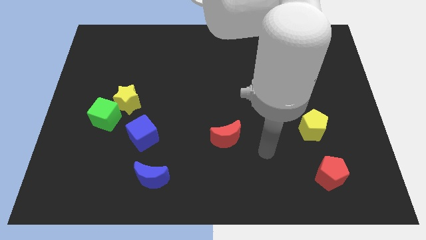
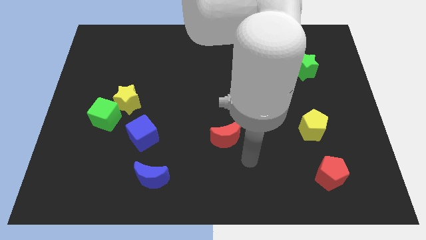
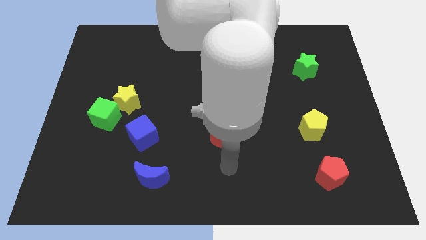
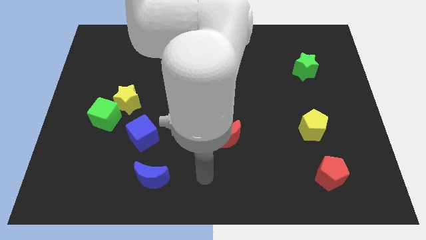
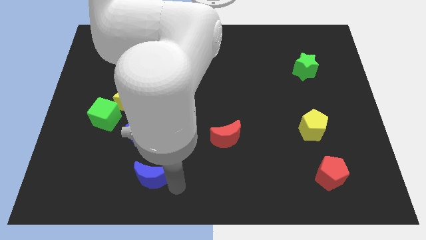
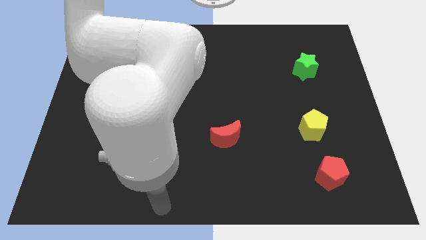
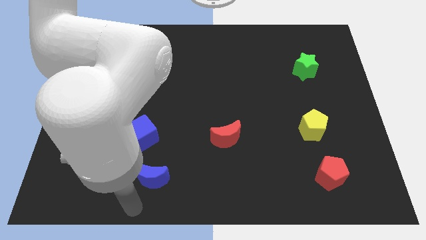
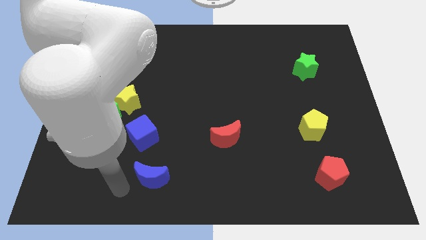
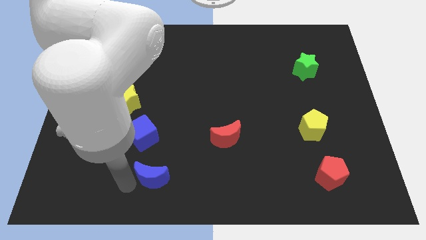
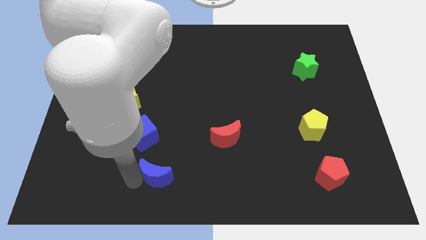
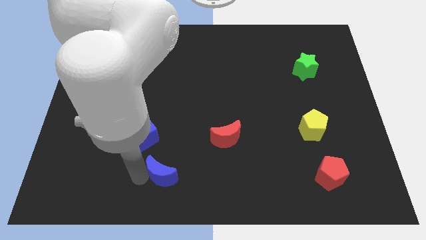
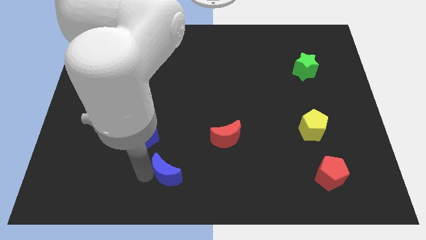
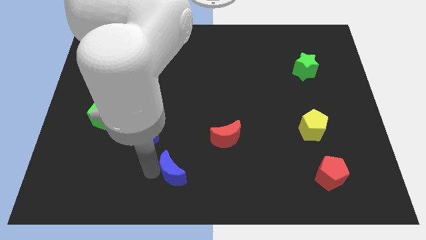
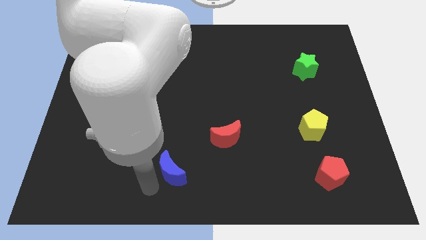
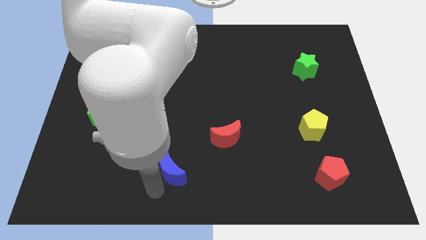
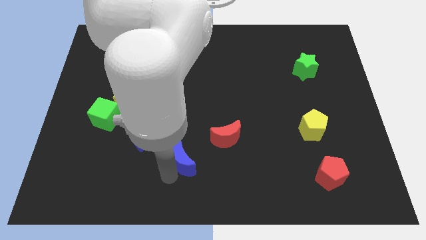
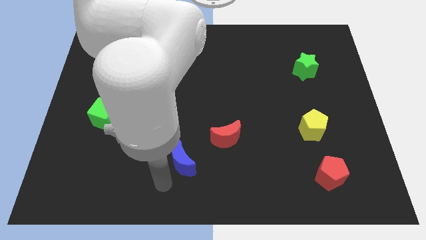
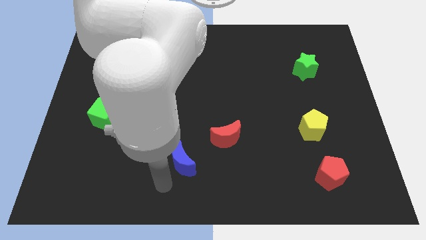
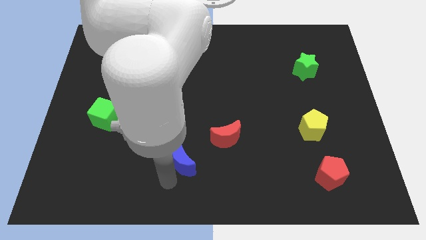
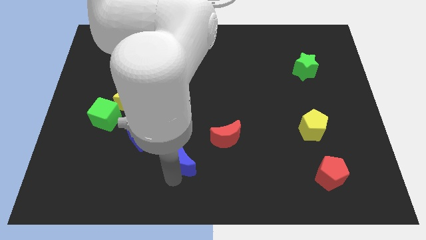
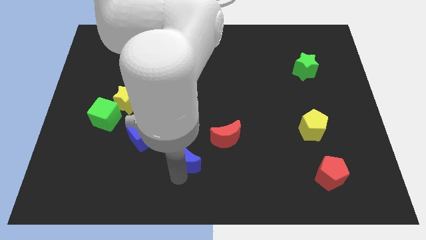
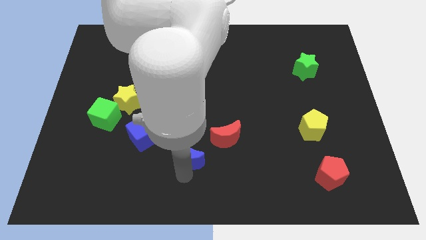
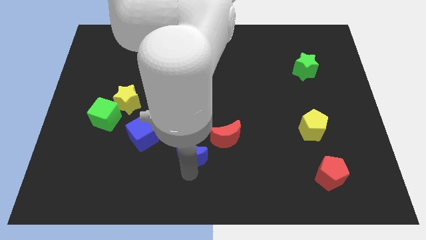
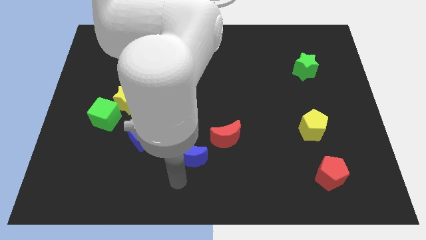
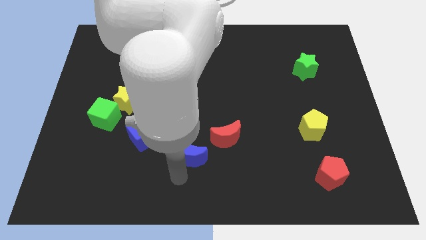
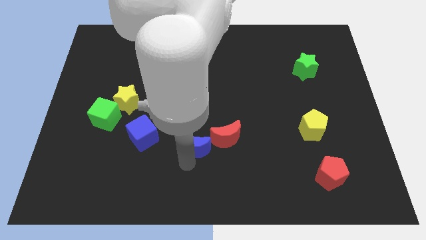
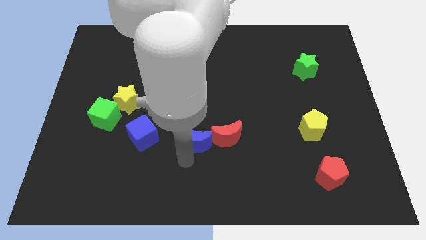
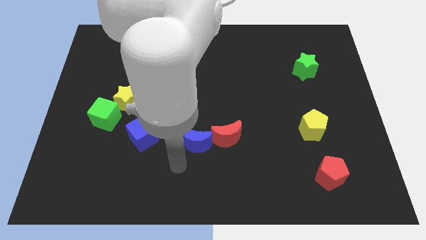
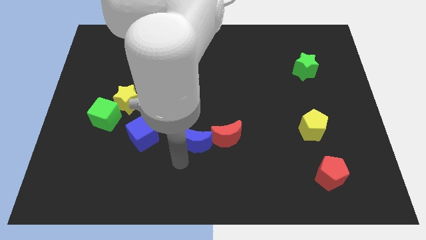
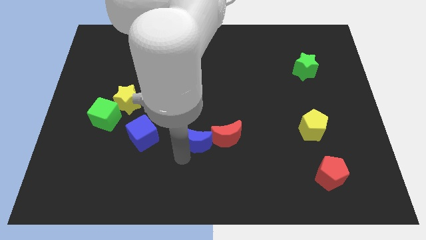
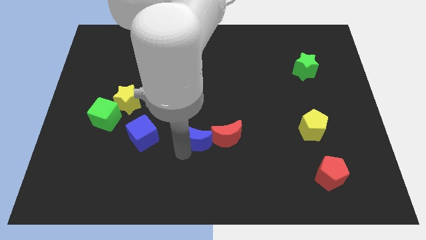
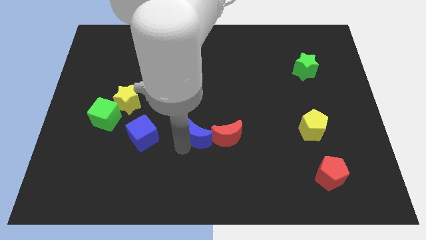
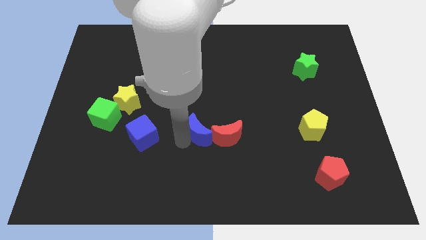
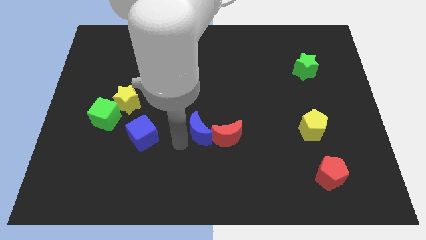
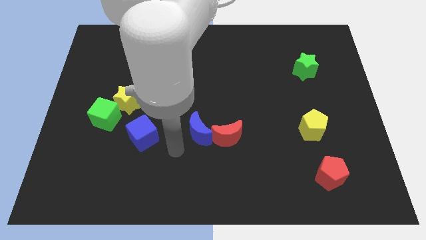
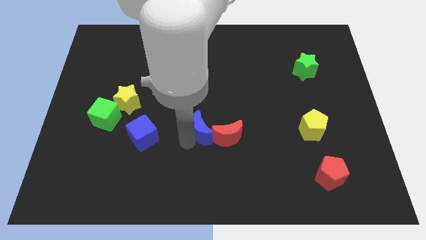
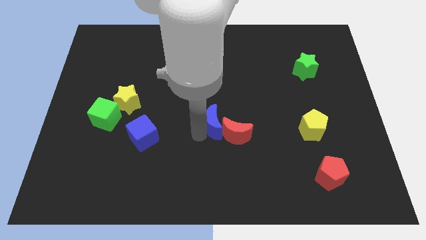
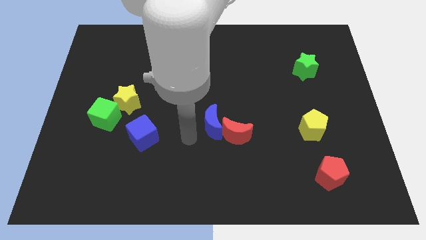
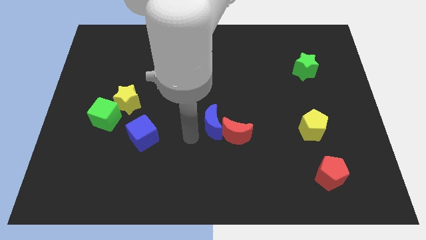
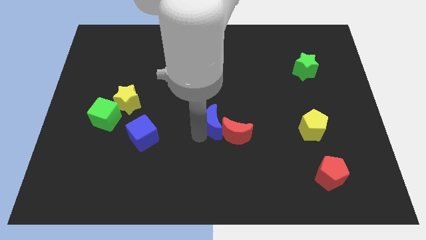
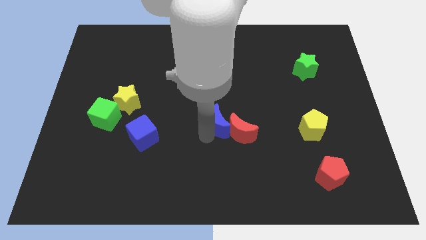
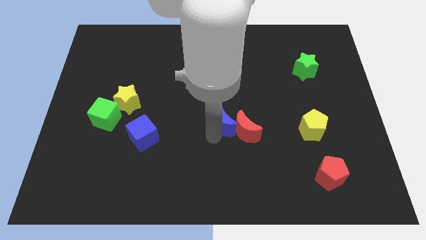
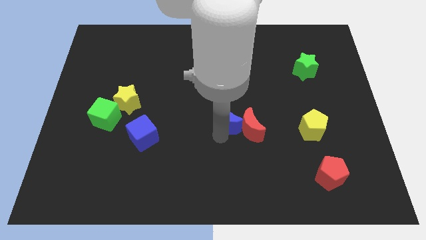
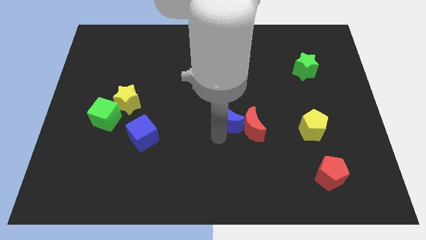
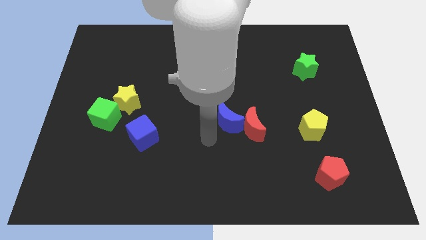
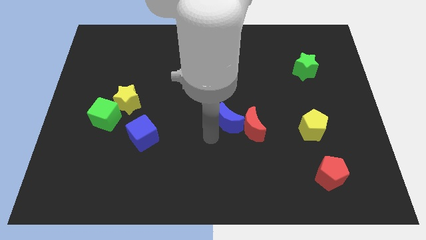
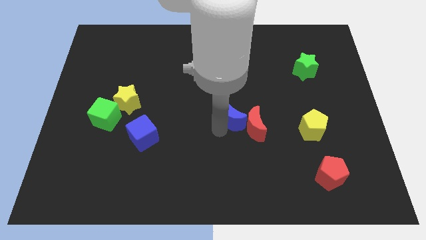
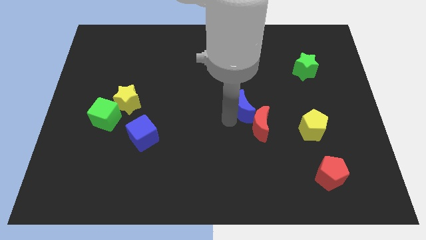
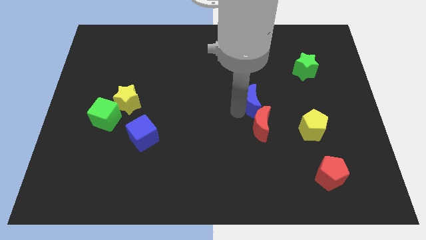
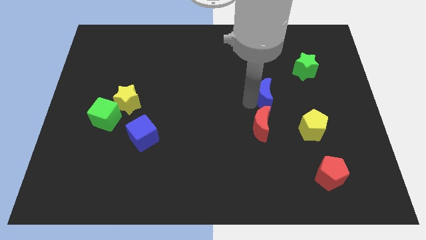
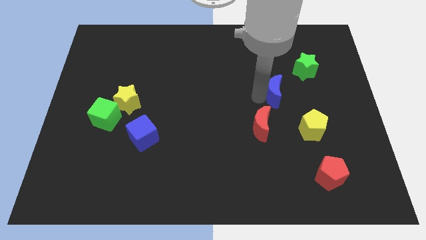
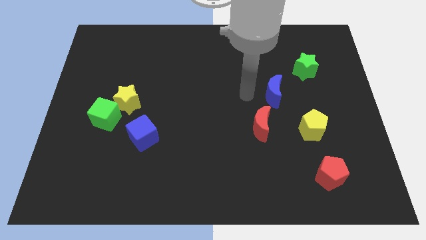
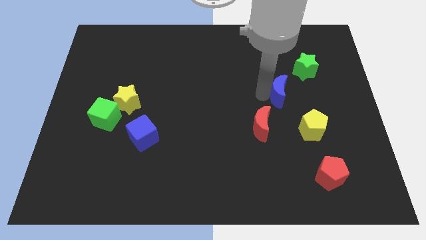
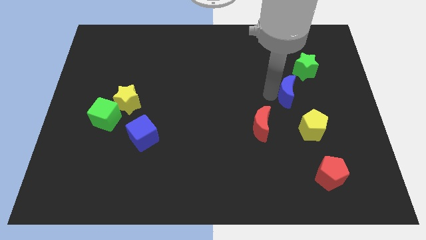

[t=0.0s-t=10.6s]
push the blue moon to the top of the yellow pentagon

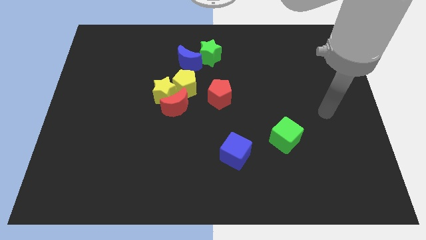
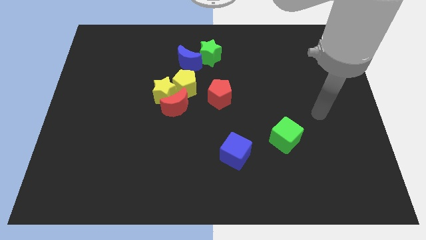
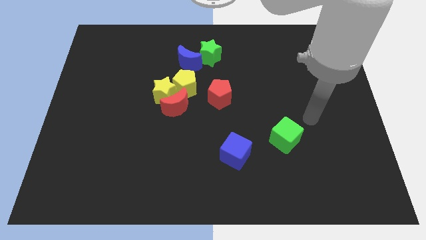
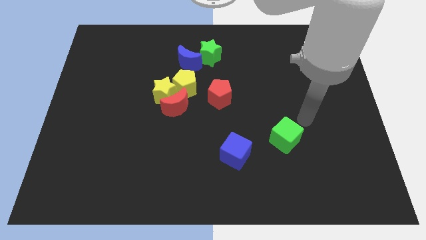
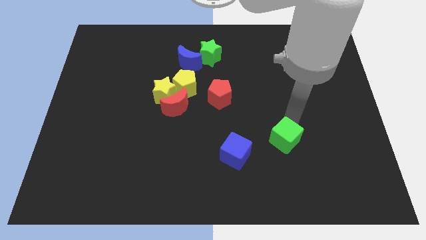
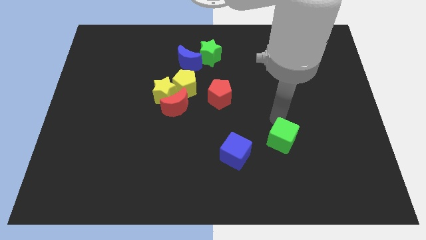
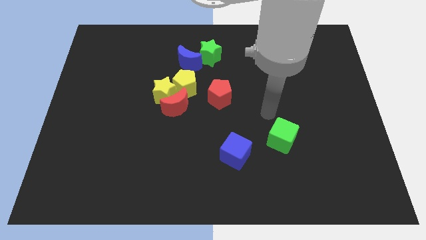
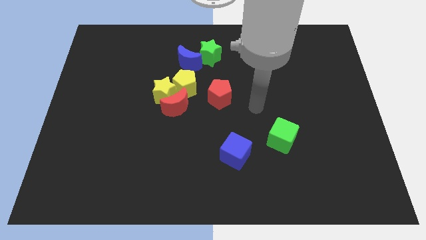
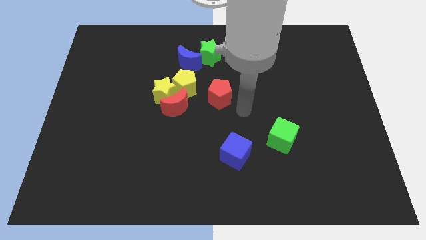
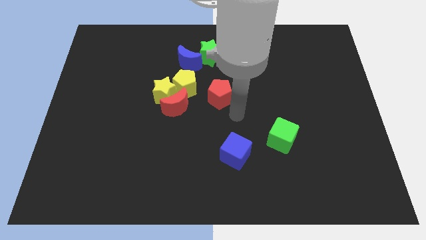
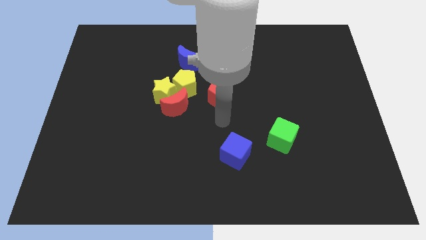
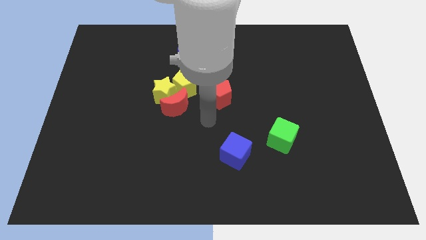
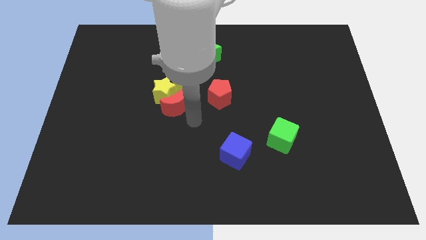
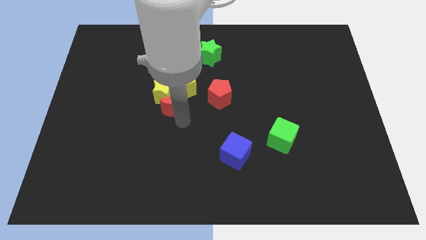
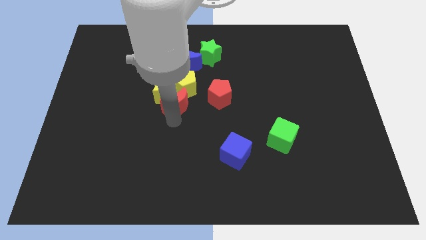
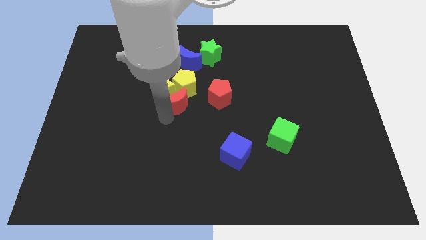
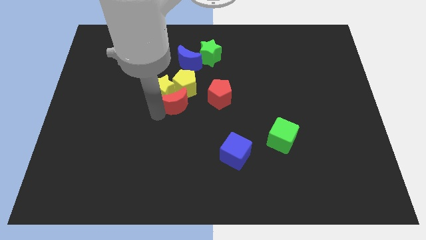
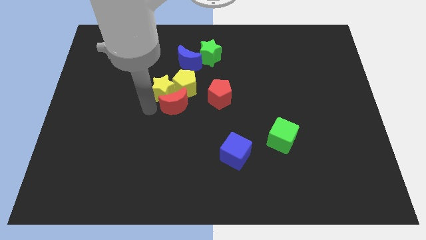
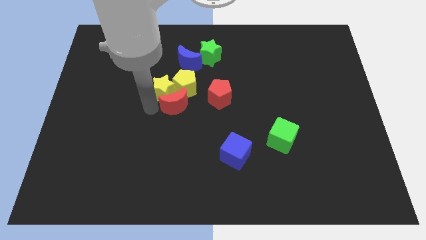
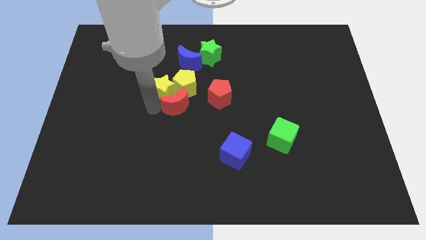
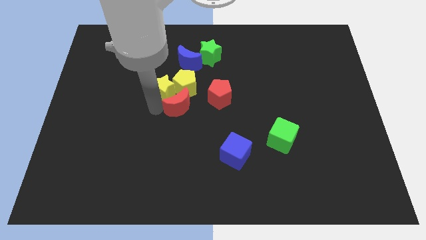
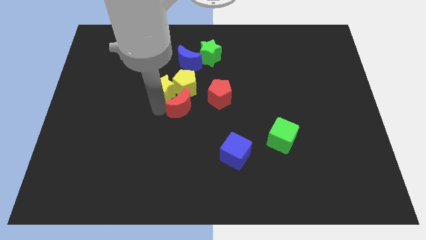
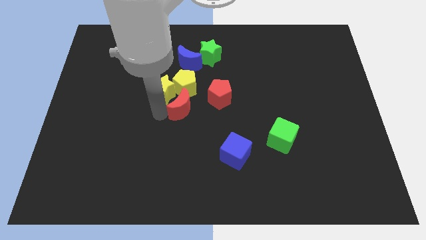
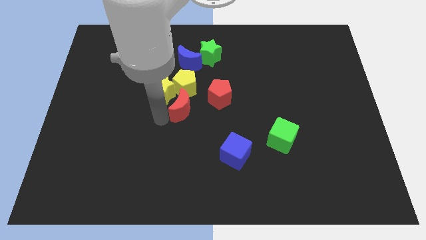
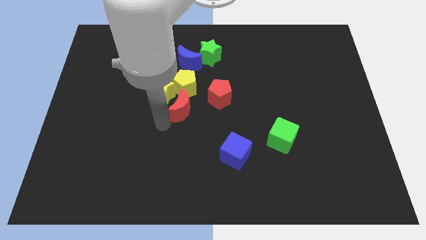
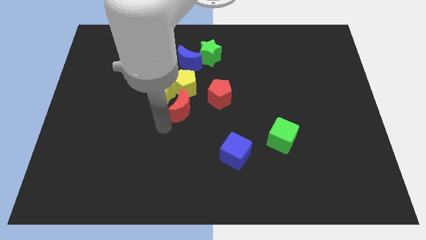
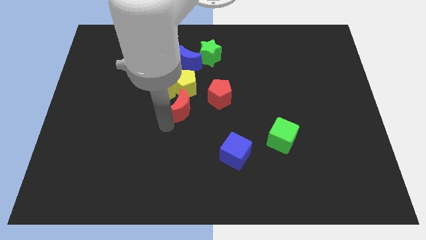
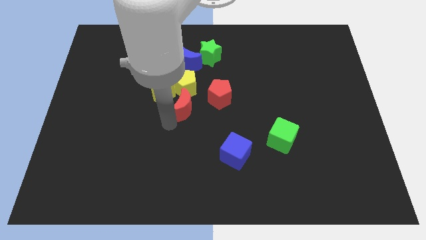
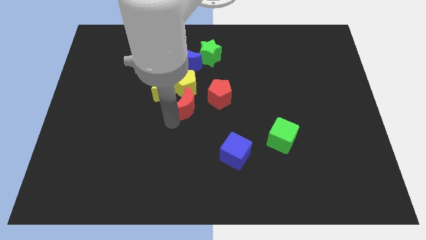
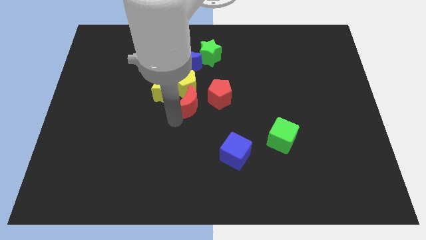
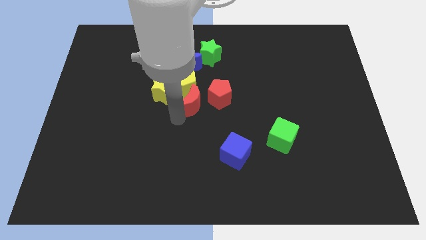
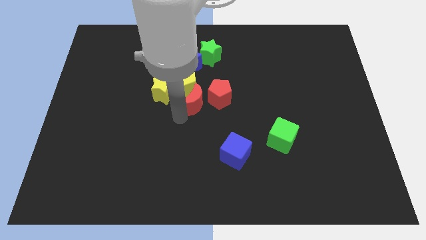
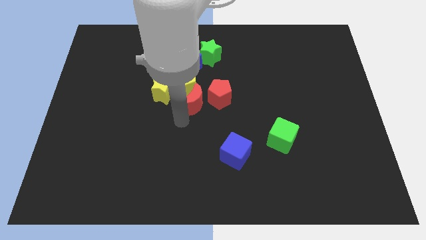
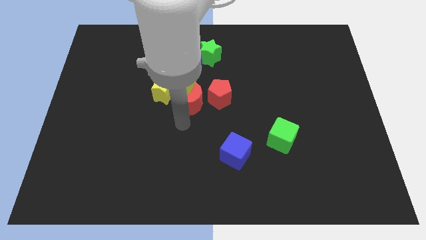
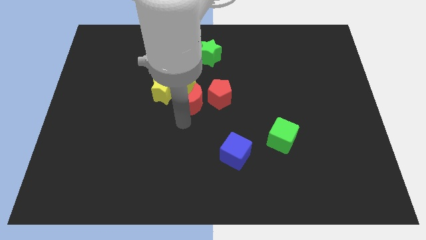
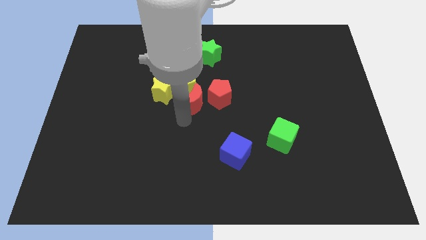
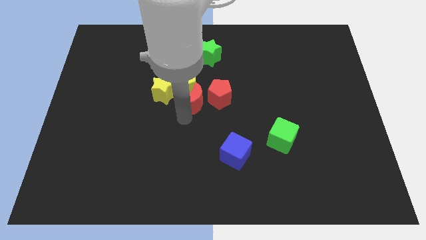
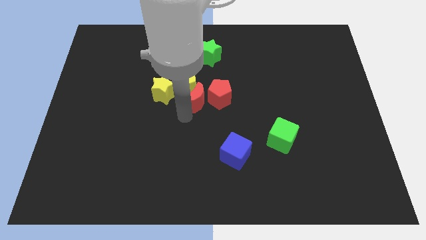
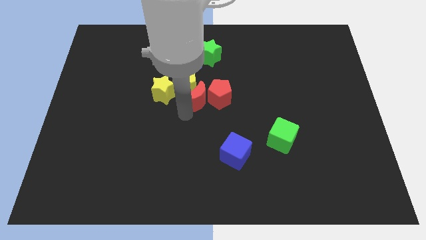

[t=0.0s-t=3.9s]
slide the red moon below the green star
